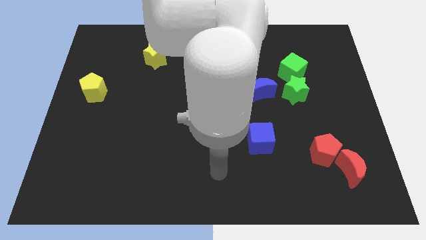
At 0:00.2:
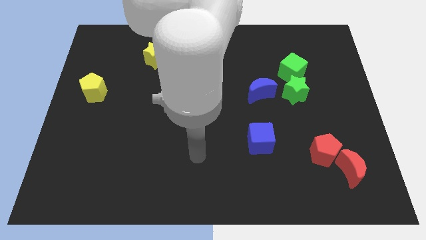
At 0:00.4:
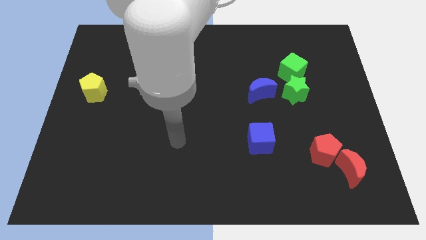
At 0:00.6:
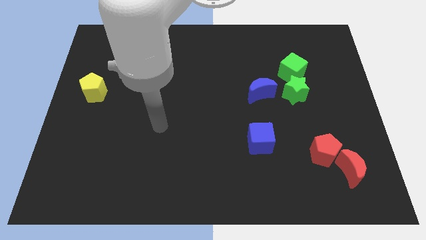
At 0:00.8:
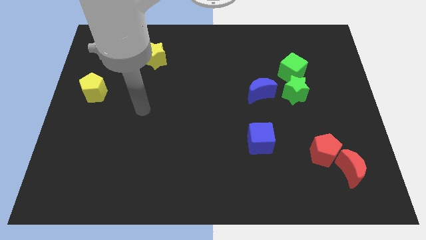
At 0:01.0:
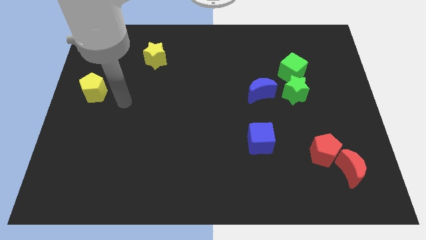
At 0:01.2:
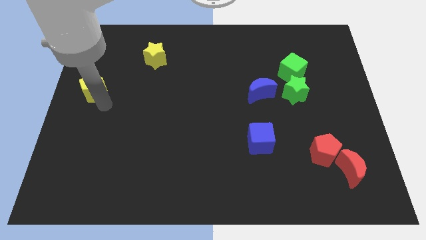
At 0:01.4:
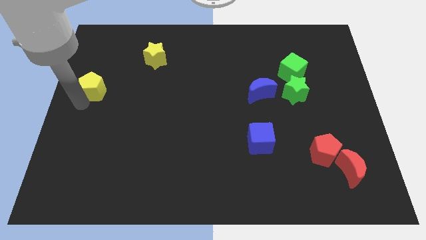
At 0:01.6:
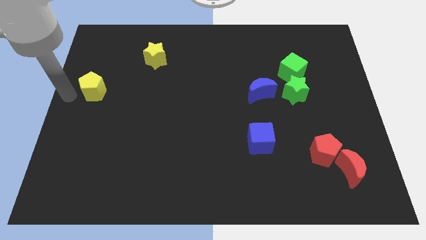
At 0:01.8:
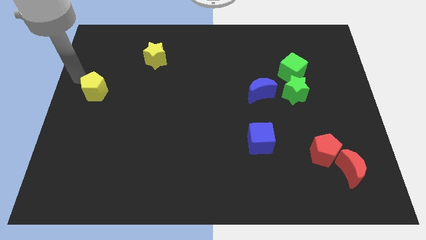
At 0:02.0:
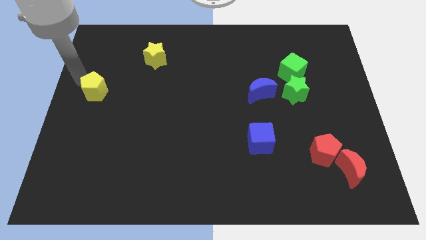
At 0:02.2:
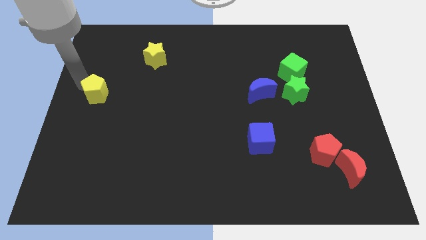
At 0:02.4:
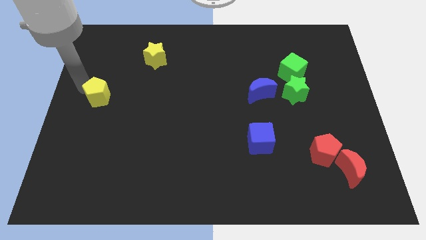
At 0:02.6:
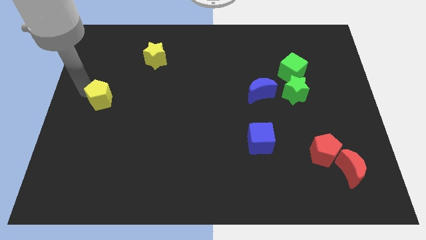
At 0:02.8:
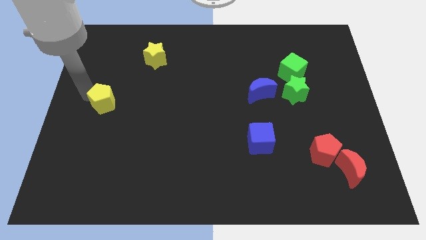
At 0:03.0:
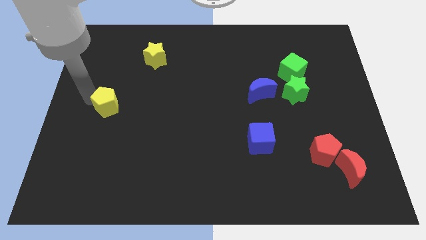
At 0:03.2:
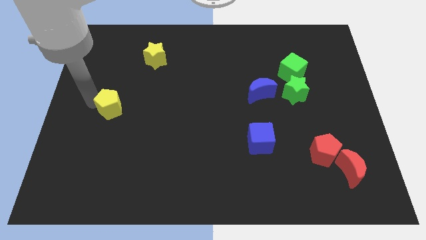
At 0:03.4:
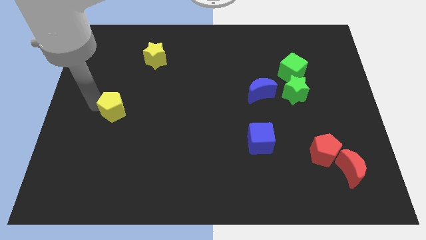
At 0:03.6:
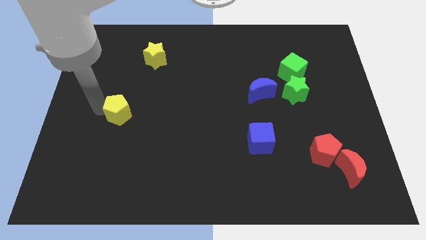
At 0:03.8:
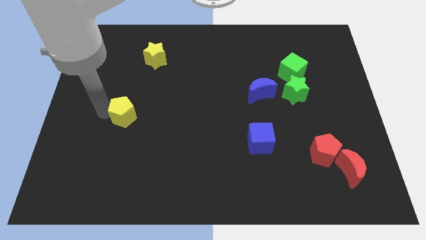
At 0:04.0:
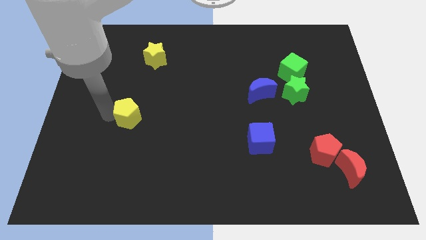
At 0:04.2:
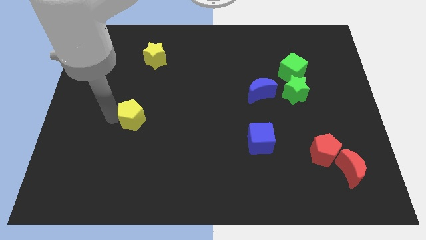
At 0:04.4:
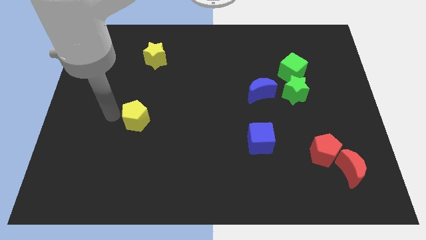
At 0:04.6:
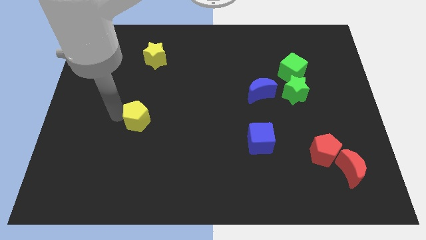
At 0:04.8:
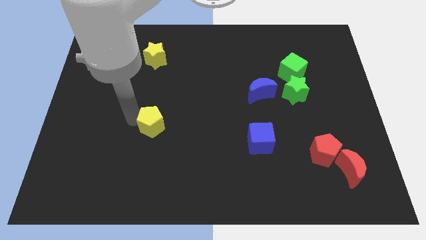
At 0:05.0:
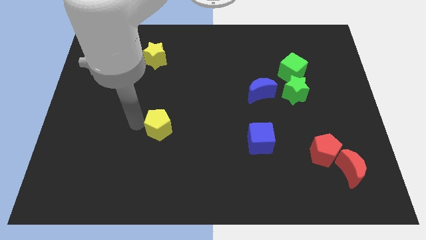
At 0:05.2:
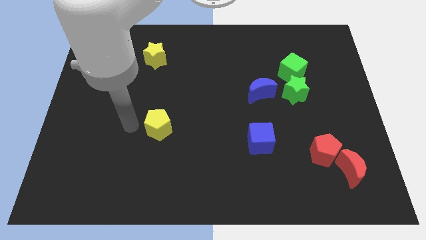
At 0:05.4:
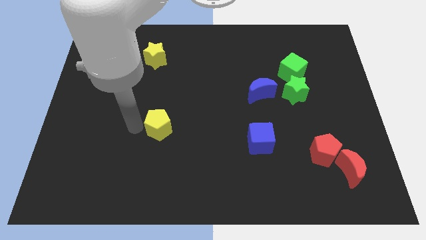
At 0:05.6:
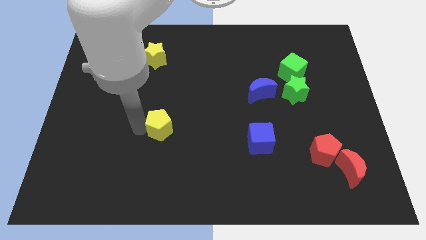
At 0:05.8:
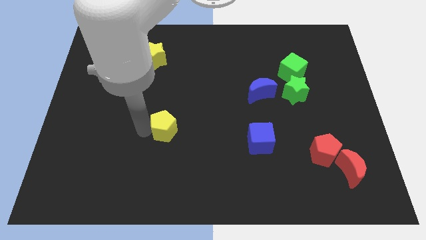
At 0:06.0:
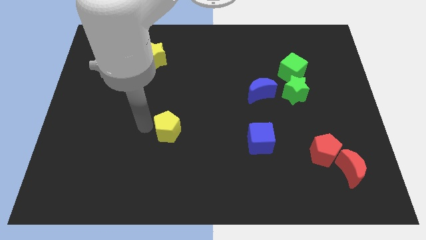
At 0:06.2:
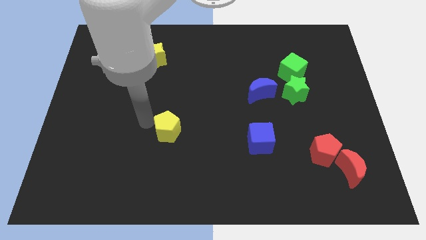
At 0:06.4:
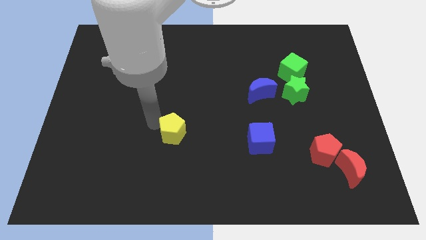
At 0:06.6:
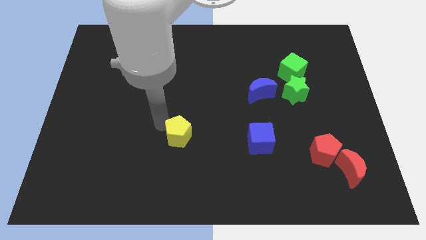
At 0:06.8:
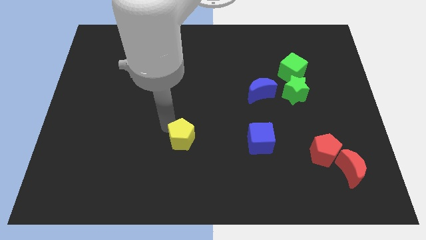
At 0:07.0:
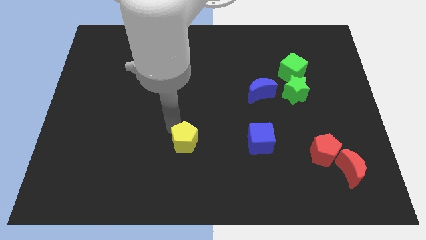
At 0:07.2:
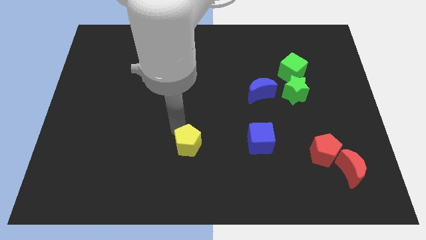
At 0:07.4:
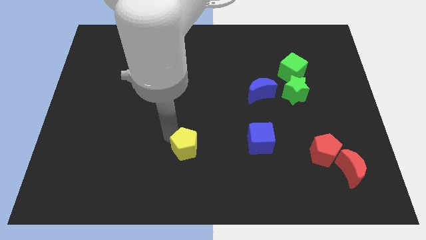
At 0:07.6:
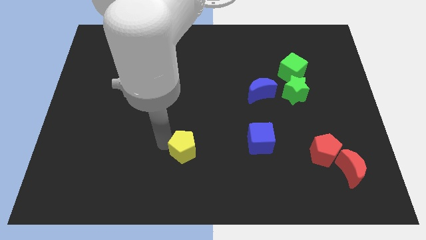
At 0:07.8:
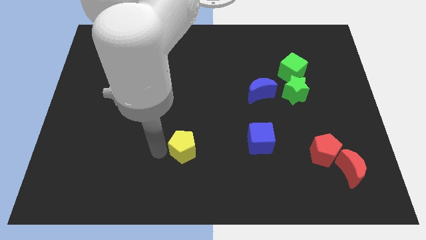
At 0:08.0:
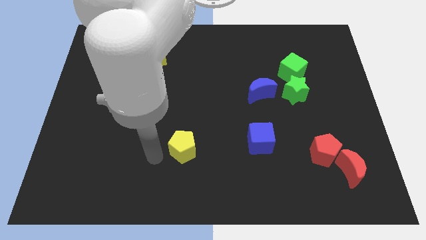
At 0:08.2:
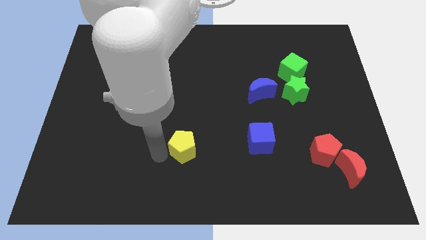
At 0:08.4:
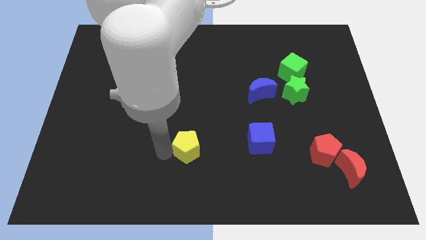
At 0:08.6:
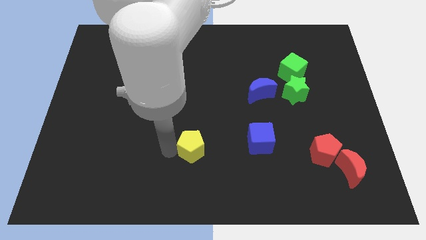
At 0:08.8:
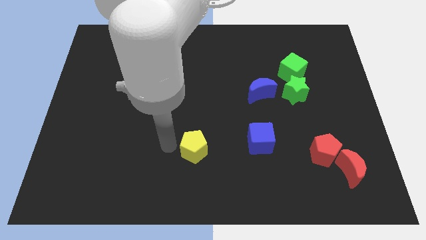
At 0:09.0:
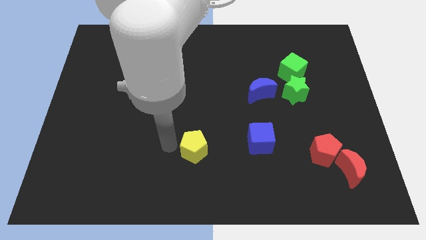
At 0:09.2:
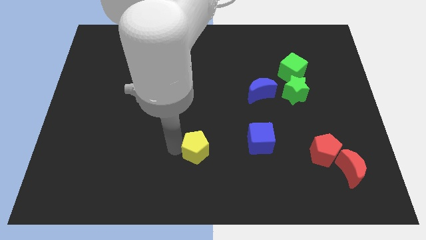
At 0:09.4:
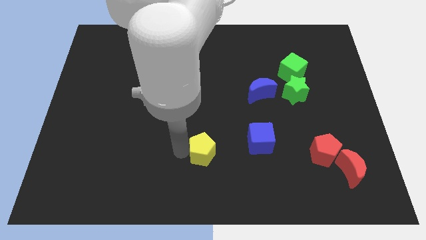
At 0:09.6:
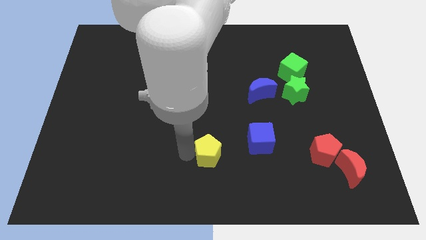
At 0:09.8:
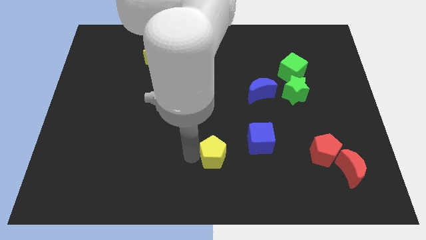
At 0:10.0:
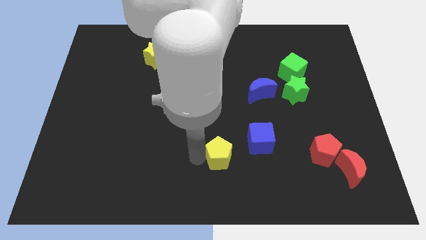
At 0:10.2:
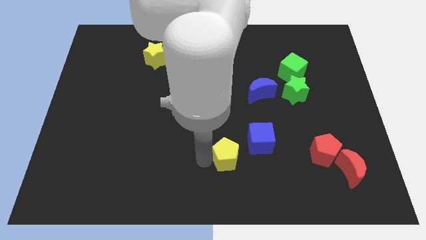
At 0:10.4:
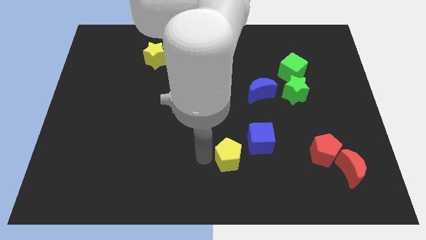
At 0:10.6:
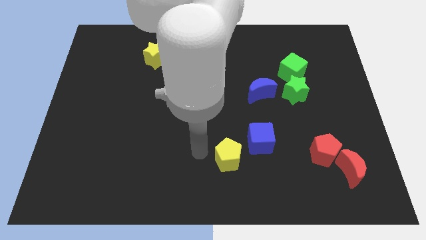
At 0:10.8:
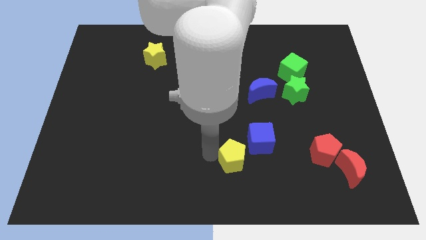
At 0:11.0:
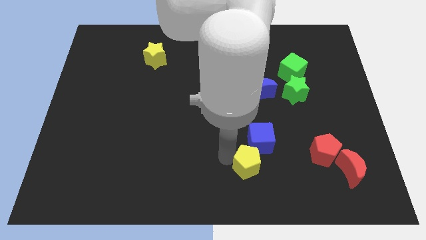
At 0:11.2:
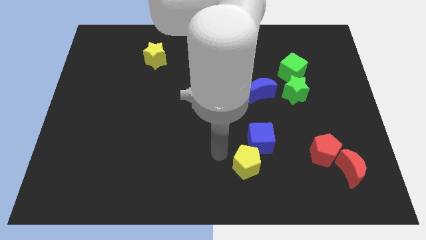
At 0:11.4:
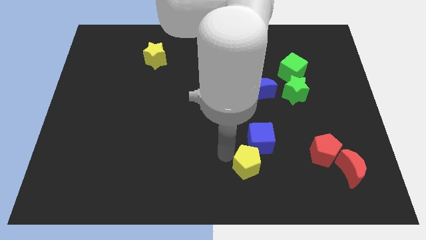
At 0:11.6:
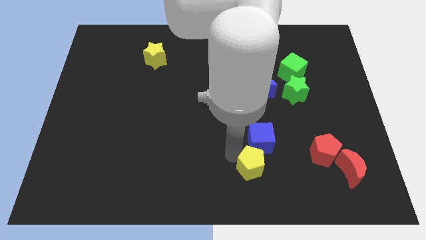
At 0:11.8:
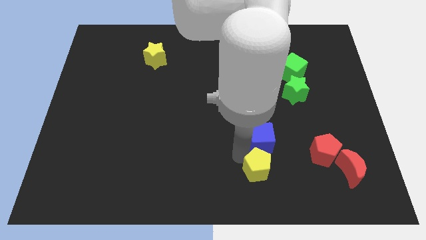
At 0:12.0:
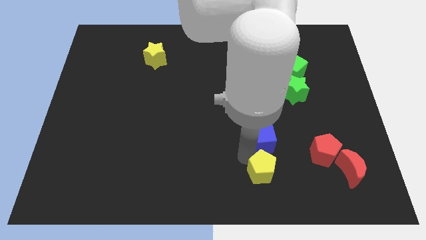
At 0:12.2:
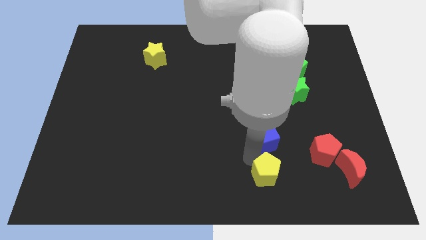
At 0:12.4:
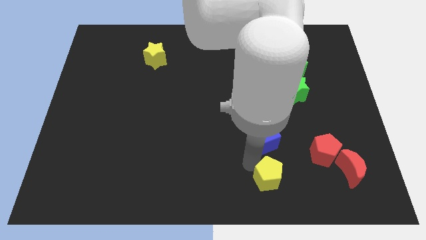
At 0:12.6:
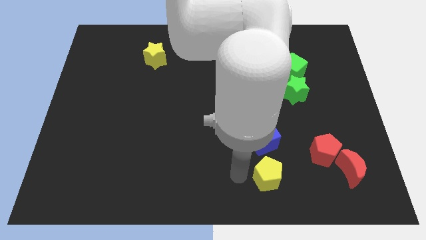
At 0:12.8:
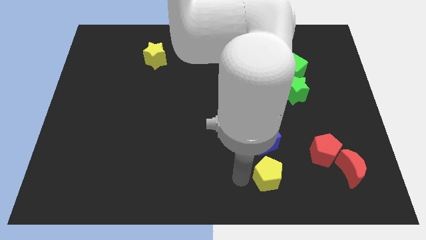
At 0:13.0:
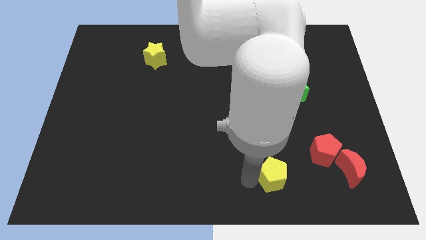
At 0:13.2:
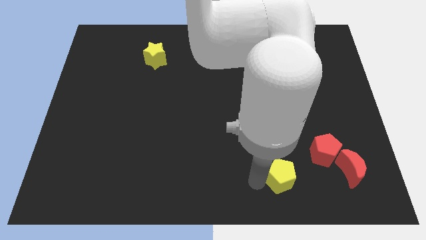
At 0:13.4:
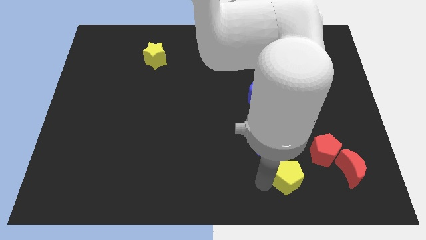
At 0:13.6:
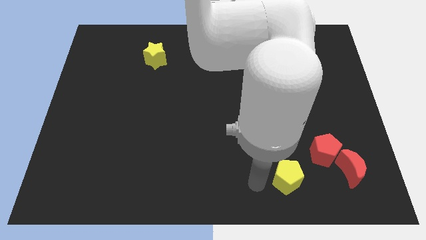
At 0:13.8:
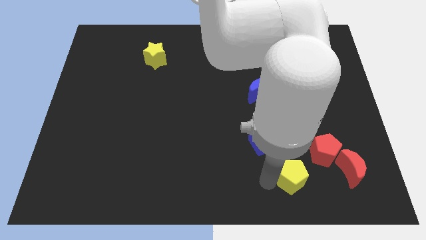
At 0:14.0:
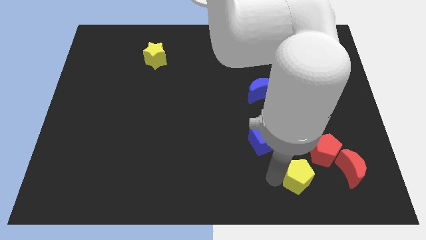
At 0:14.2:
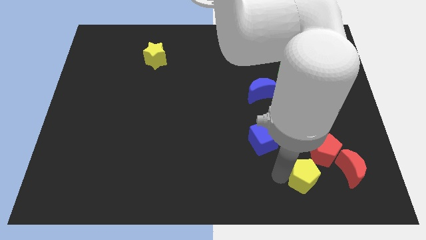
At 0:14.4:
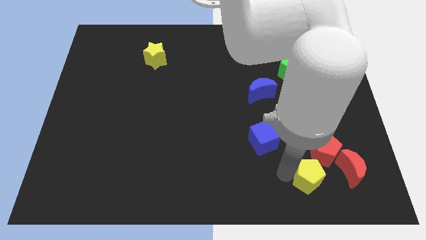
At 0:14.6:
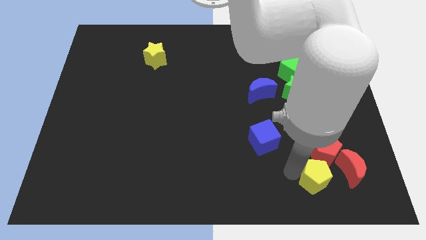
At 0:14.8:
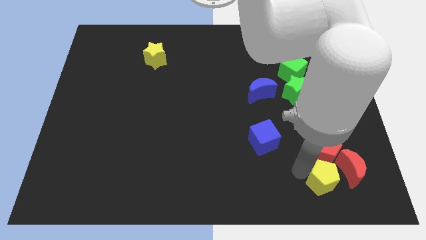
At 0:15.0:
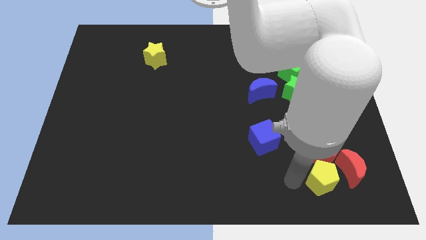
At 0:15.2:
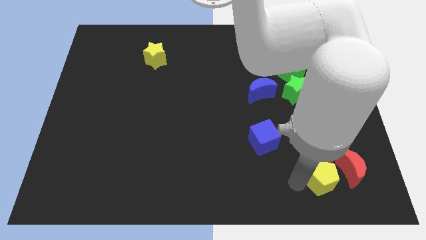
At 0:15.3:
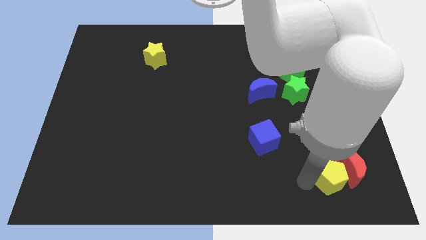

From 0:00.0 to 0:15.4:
slide the yellow pentagon to the bottom right side of the red pentagon

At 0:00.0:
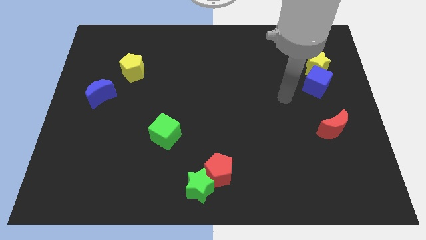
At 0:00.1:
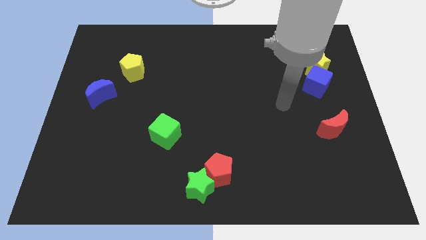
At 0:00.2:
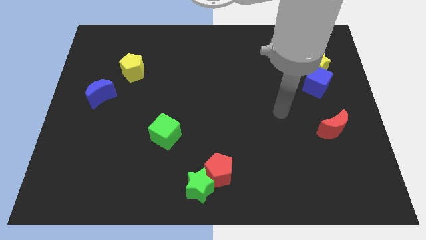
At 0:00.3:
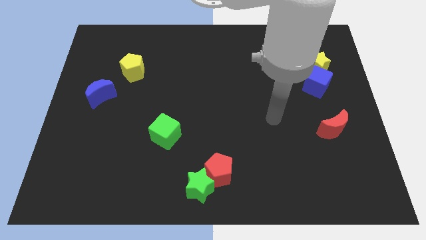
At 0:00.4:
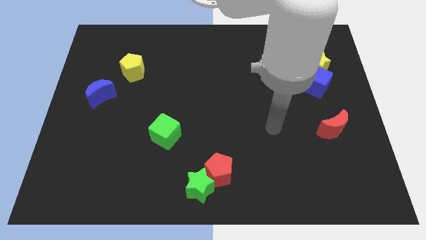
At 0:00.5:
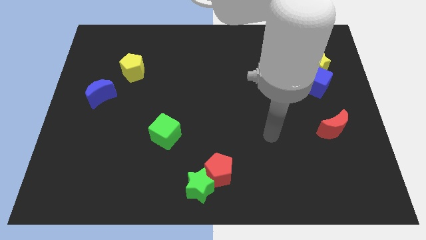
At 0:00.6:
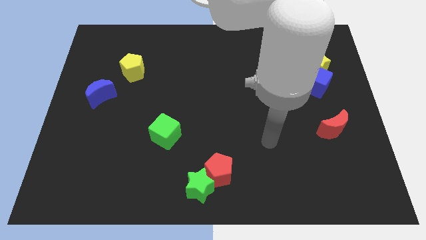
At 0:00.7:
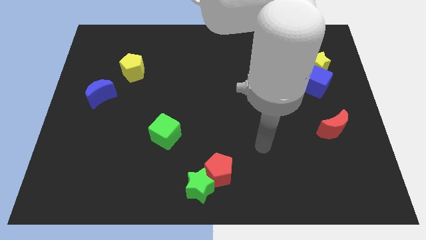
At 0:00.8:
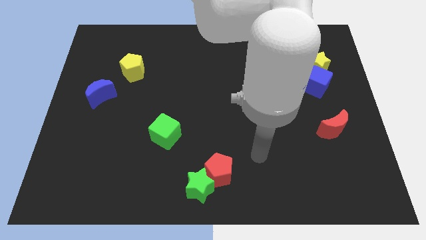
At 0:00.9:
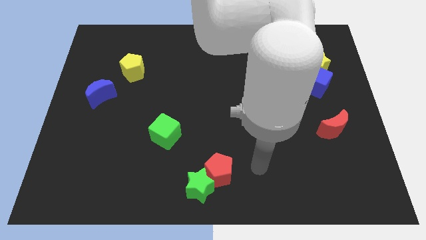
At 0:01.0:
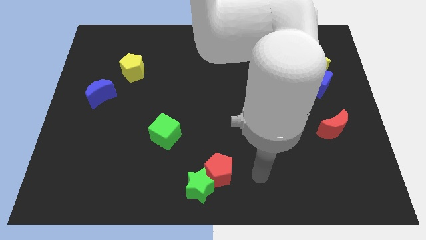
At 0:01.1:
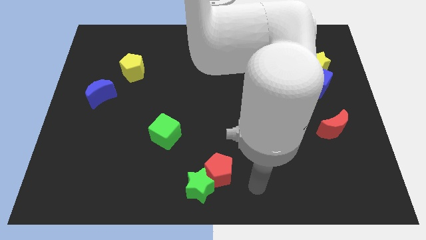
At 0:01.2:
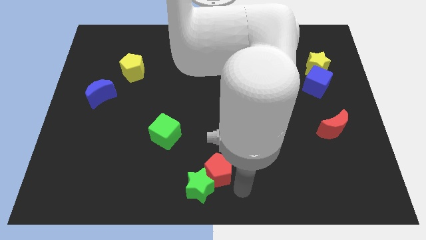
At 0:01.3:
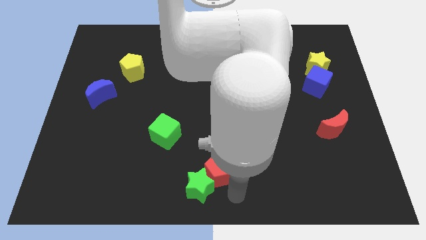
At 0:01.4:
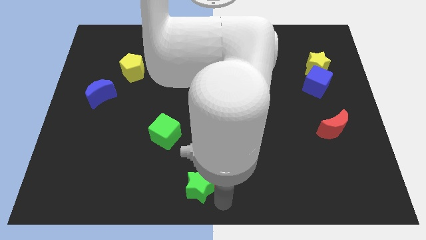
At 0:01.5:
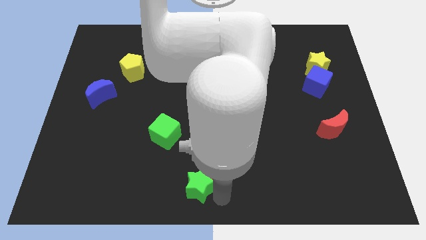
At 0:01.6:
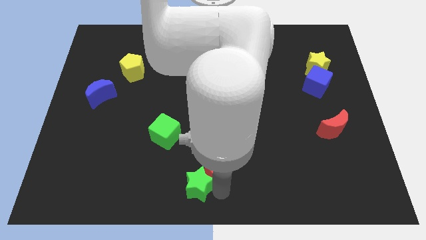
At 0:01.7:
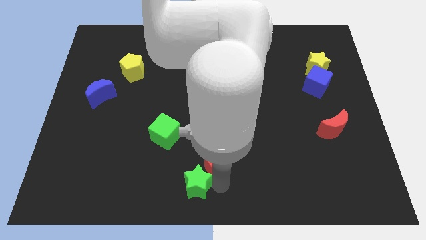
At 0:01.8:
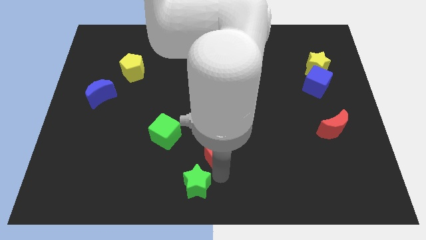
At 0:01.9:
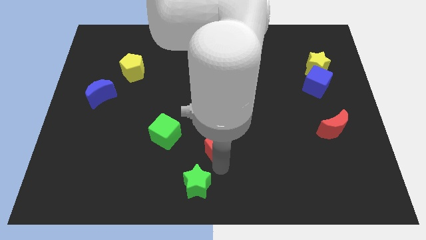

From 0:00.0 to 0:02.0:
slide the red pentagon to the right side of the green cube
